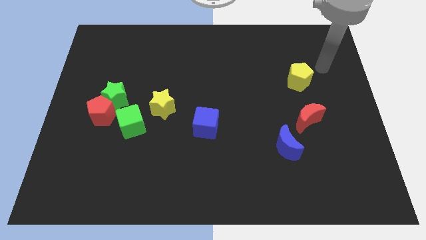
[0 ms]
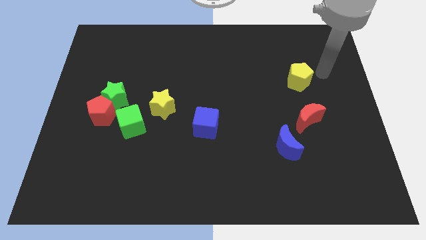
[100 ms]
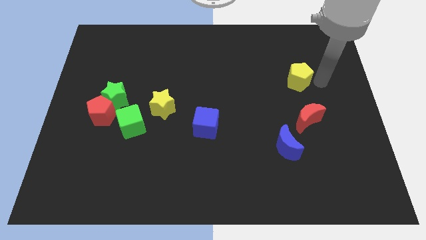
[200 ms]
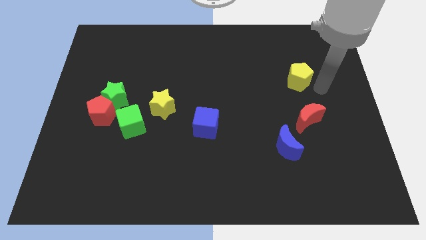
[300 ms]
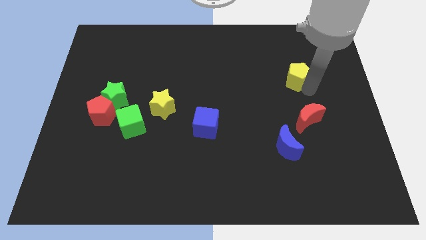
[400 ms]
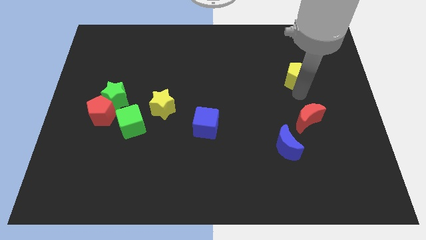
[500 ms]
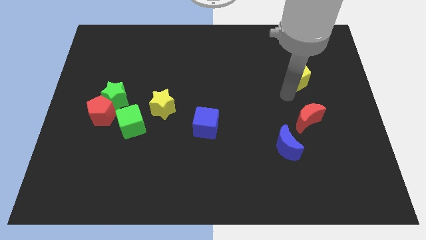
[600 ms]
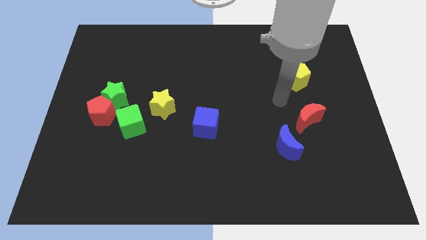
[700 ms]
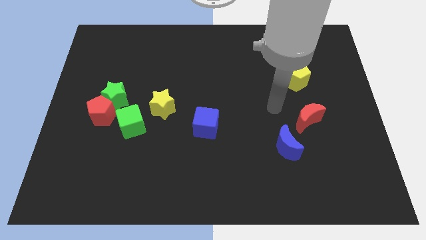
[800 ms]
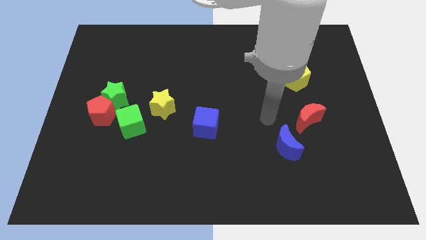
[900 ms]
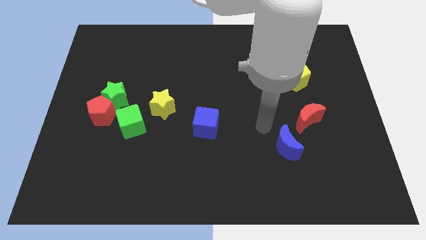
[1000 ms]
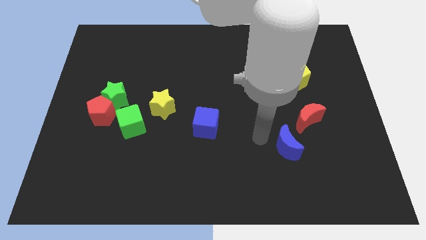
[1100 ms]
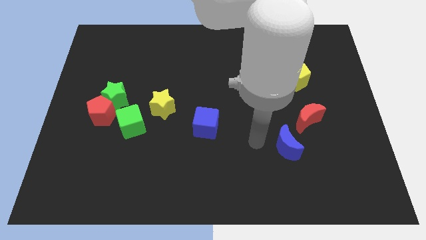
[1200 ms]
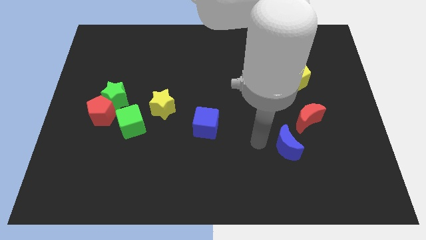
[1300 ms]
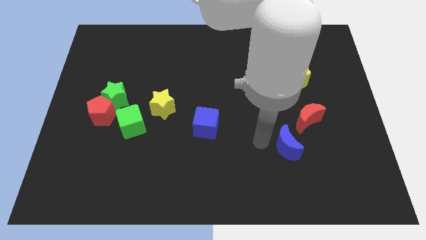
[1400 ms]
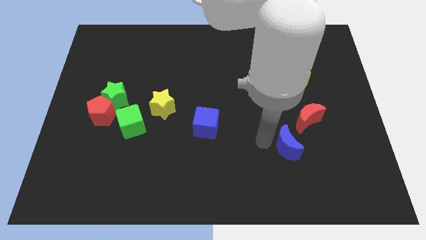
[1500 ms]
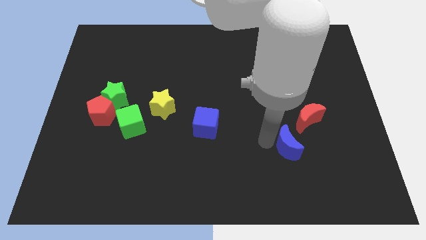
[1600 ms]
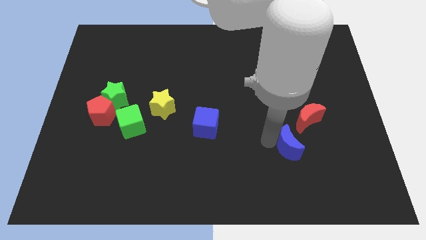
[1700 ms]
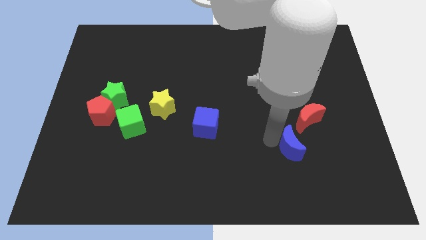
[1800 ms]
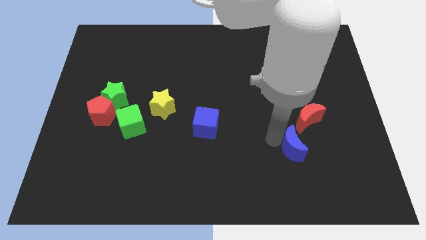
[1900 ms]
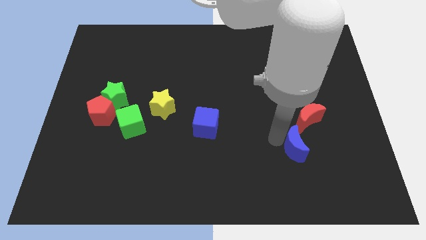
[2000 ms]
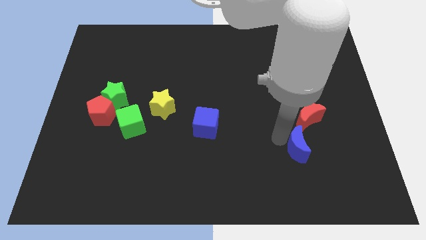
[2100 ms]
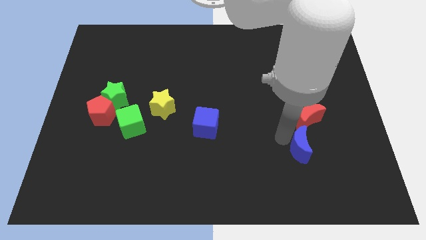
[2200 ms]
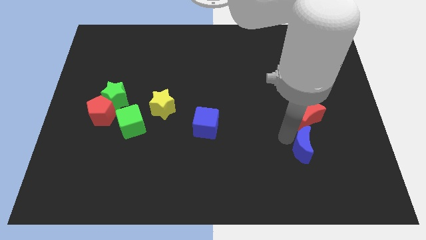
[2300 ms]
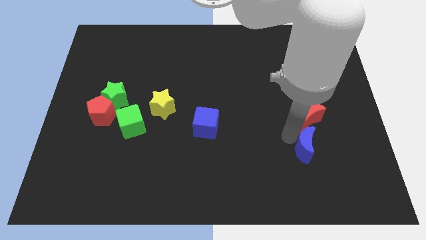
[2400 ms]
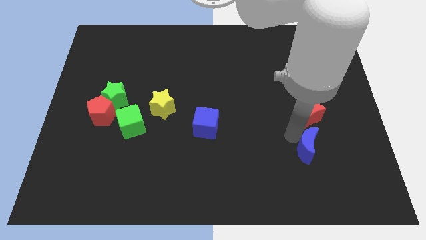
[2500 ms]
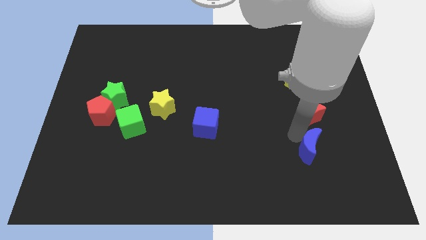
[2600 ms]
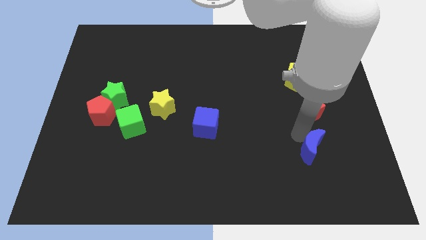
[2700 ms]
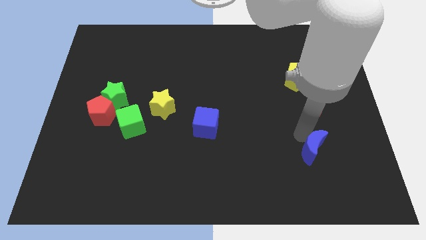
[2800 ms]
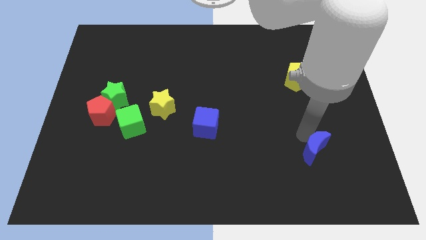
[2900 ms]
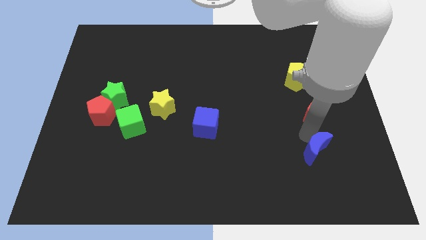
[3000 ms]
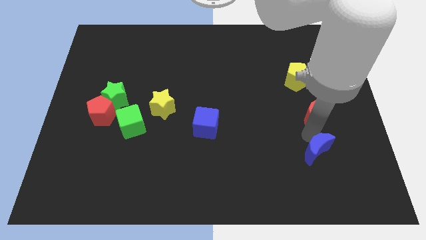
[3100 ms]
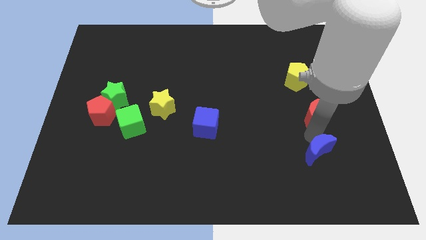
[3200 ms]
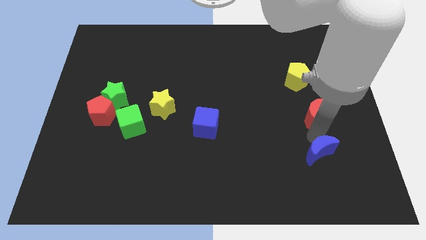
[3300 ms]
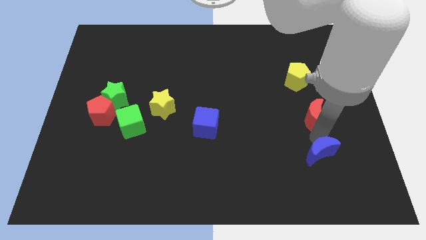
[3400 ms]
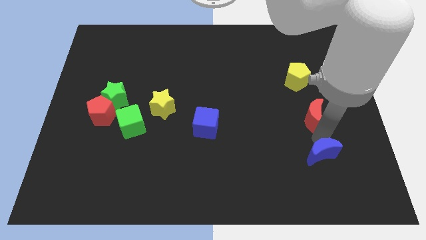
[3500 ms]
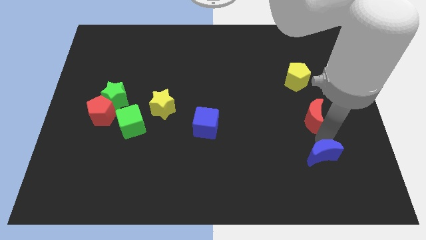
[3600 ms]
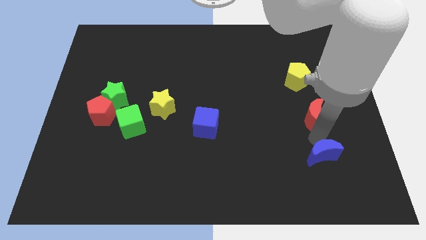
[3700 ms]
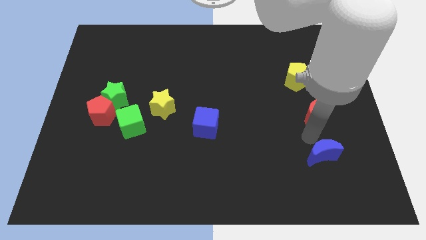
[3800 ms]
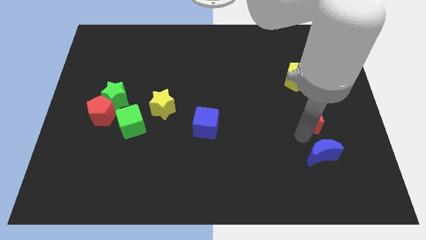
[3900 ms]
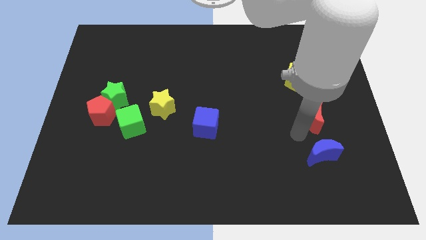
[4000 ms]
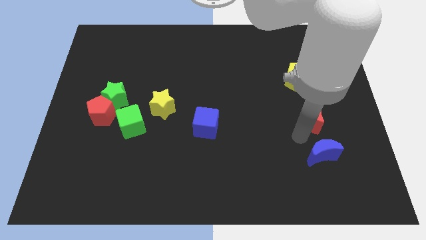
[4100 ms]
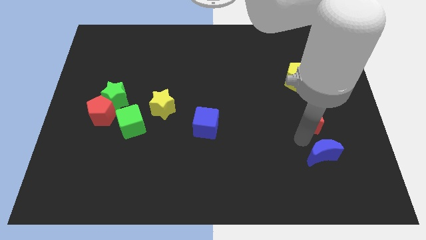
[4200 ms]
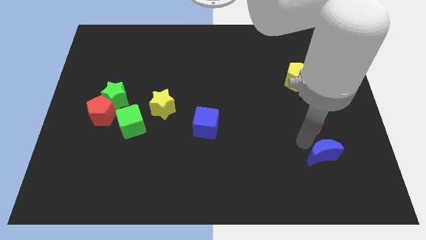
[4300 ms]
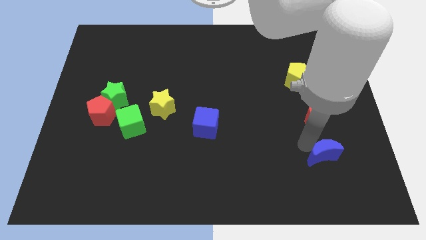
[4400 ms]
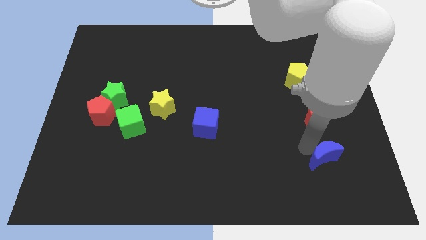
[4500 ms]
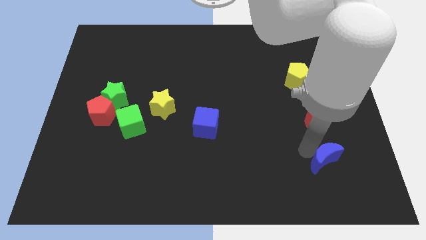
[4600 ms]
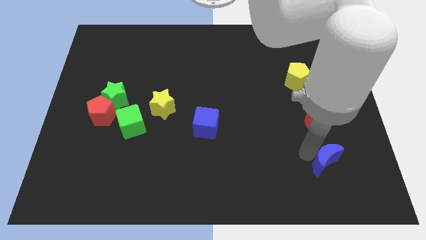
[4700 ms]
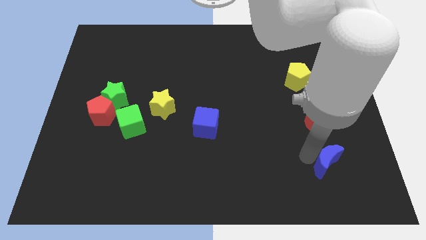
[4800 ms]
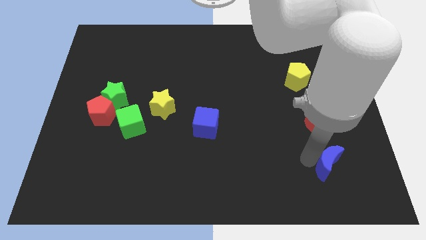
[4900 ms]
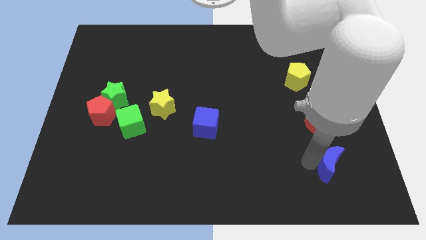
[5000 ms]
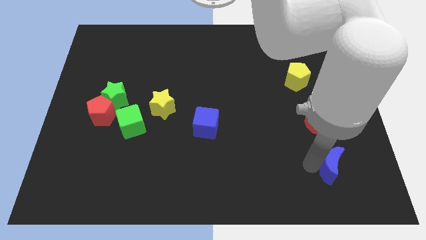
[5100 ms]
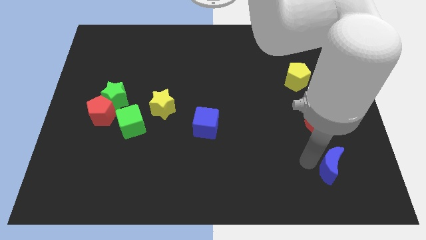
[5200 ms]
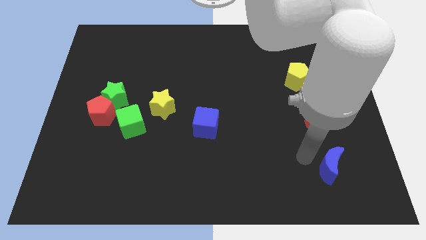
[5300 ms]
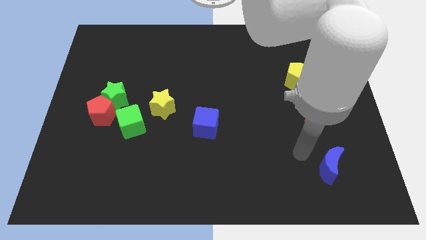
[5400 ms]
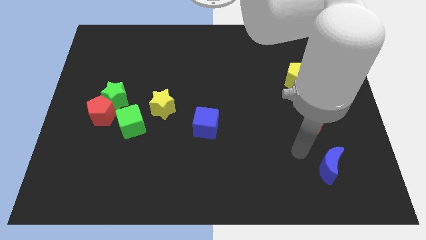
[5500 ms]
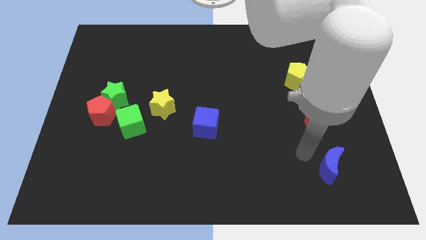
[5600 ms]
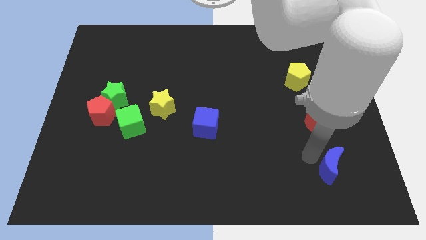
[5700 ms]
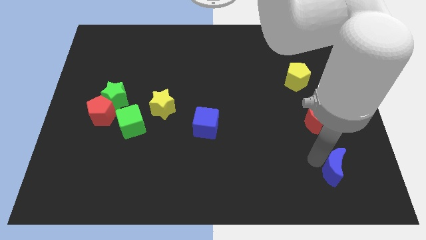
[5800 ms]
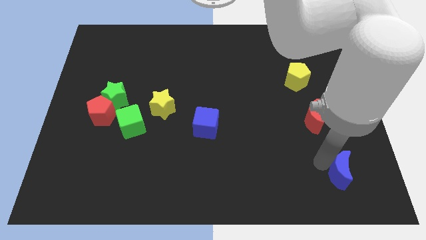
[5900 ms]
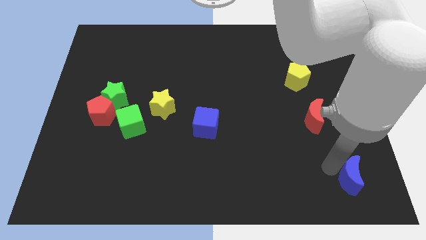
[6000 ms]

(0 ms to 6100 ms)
slide the blue moon to the bottom right corner

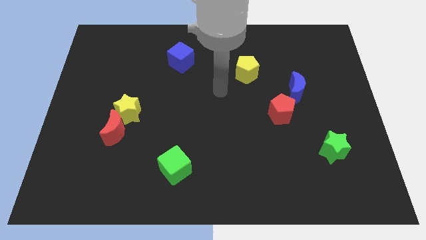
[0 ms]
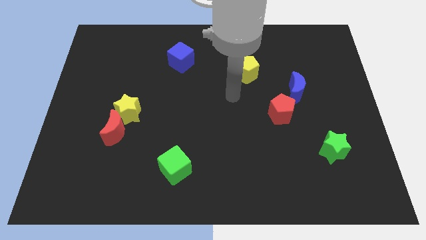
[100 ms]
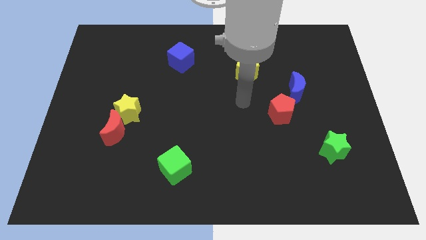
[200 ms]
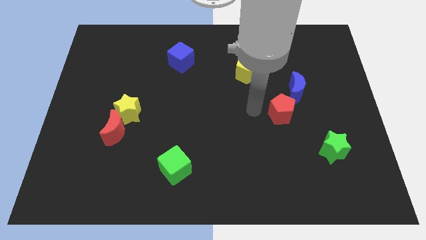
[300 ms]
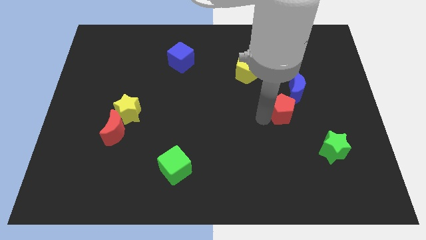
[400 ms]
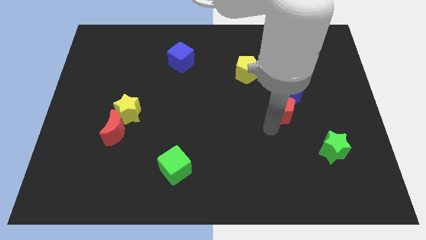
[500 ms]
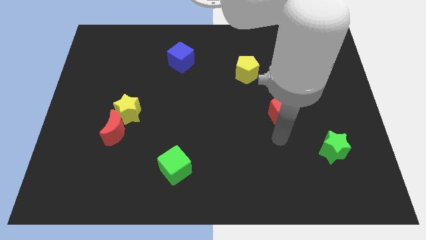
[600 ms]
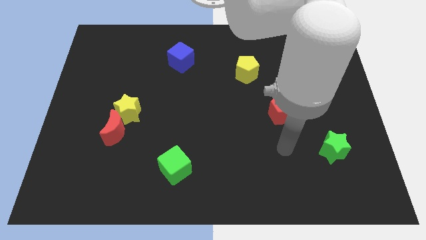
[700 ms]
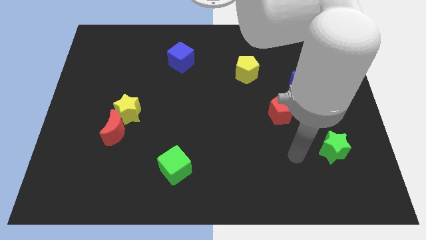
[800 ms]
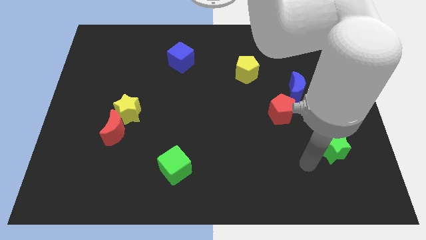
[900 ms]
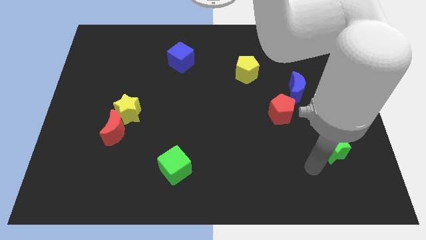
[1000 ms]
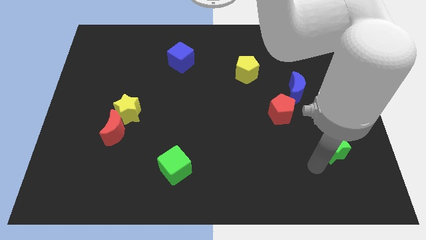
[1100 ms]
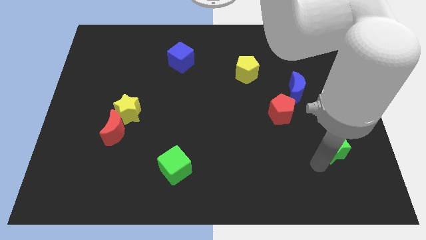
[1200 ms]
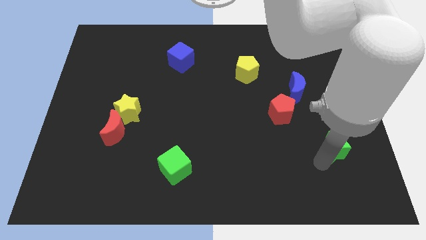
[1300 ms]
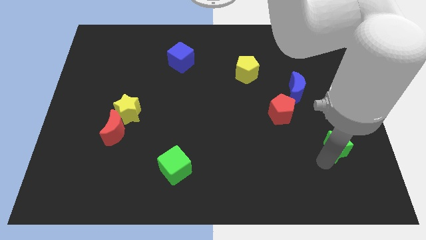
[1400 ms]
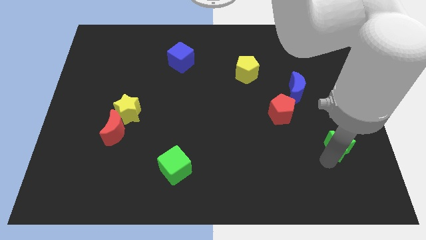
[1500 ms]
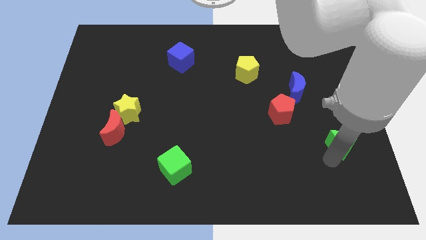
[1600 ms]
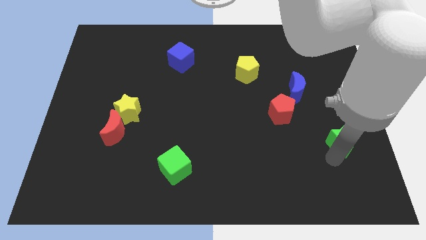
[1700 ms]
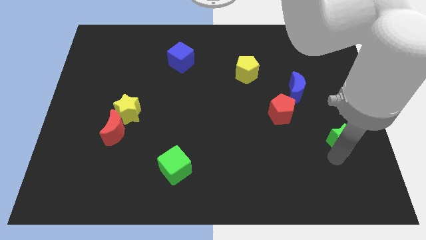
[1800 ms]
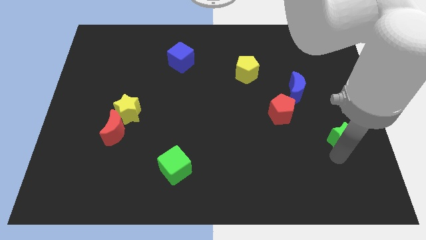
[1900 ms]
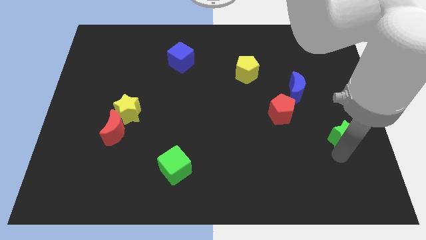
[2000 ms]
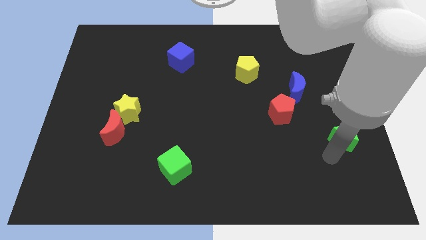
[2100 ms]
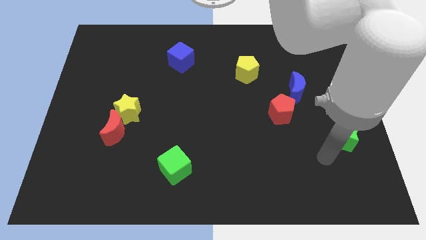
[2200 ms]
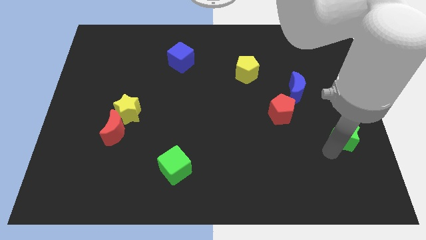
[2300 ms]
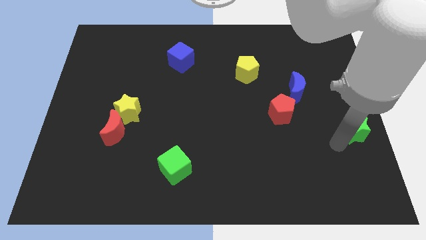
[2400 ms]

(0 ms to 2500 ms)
push the green star to the right side of the board
